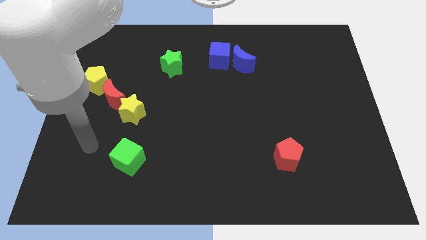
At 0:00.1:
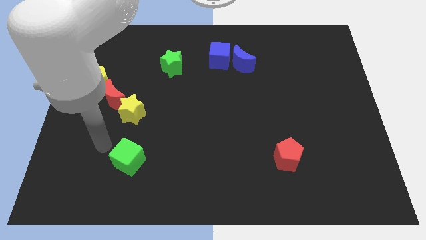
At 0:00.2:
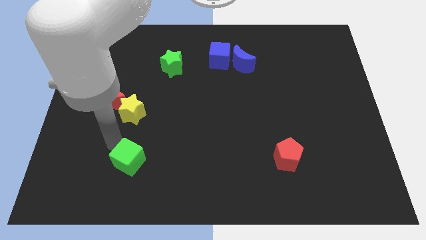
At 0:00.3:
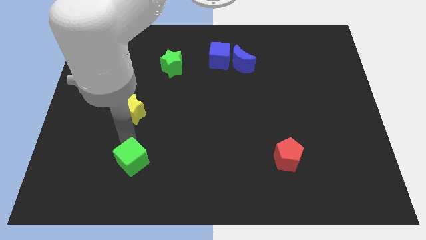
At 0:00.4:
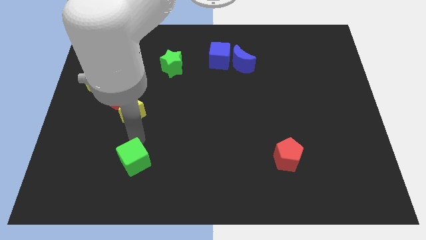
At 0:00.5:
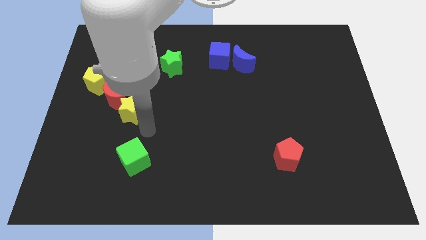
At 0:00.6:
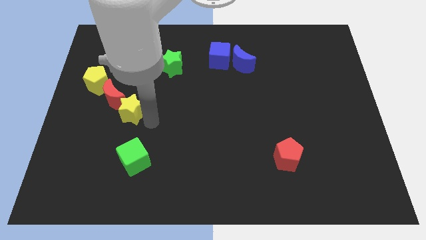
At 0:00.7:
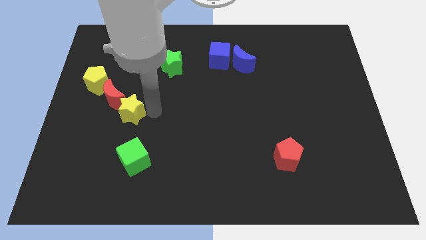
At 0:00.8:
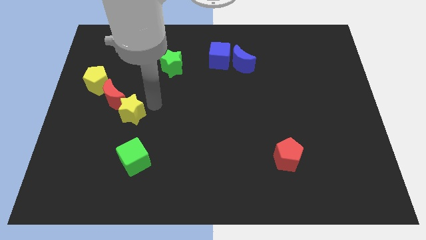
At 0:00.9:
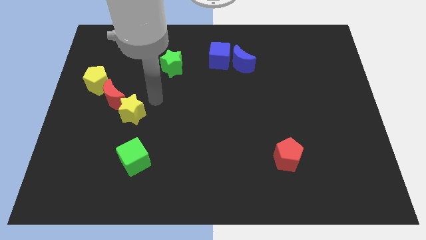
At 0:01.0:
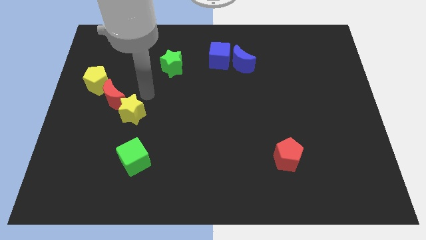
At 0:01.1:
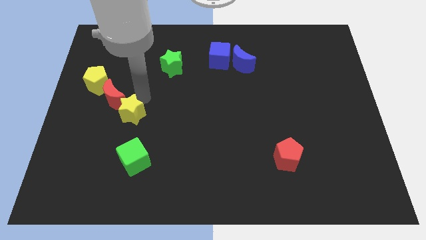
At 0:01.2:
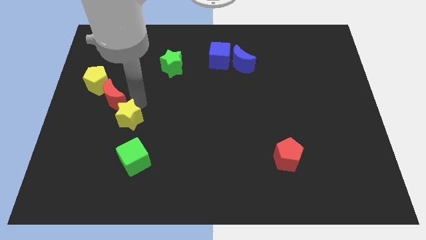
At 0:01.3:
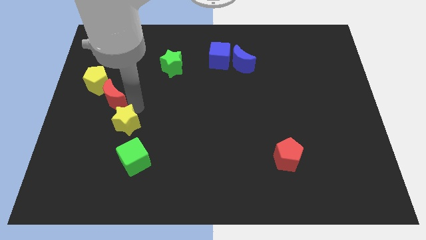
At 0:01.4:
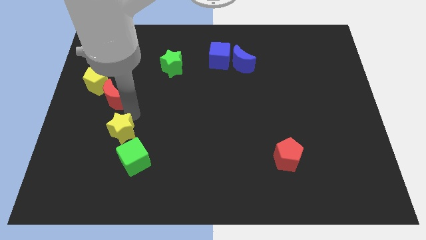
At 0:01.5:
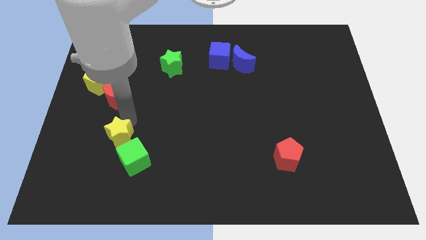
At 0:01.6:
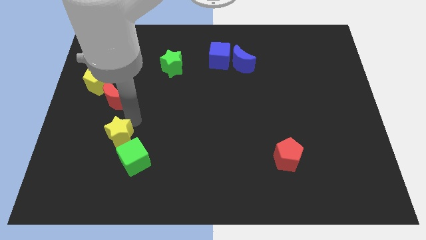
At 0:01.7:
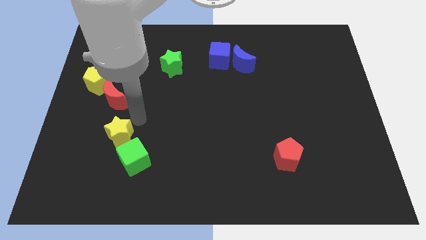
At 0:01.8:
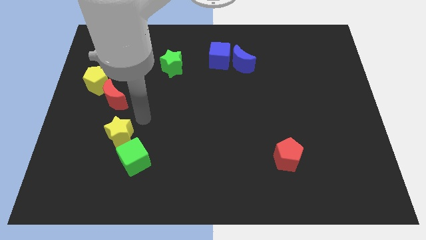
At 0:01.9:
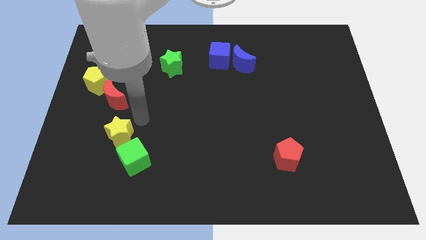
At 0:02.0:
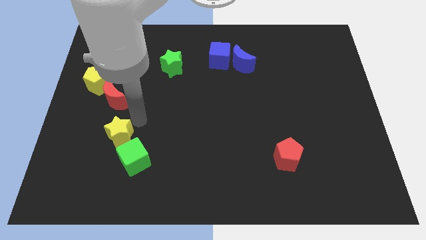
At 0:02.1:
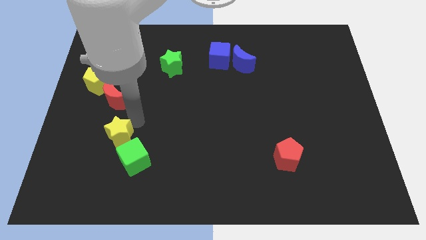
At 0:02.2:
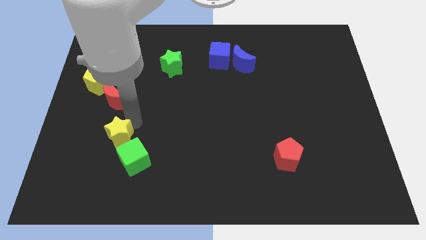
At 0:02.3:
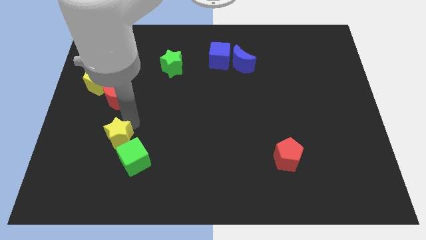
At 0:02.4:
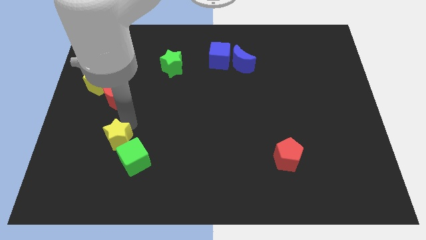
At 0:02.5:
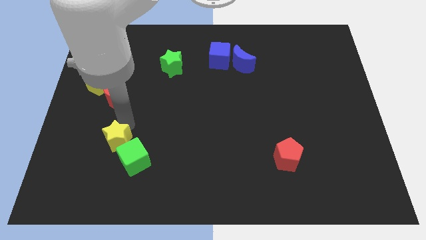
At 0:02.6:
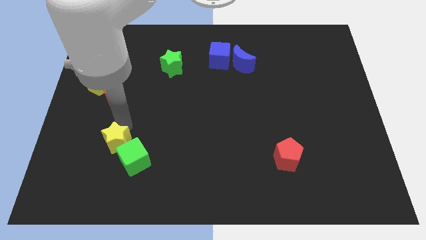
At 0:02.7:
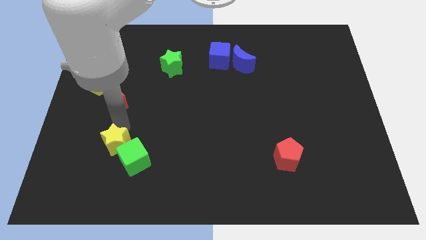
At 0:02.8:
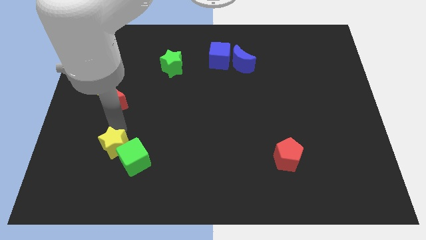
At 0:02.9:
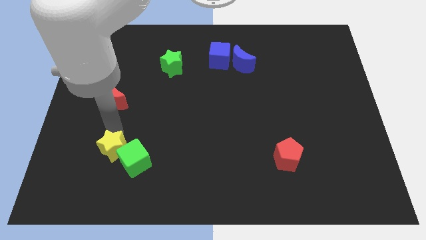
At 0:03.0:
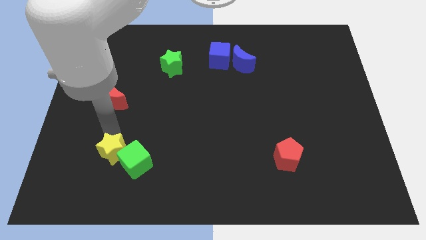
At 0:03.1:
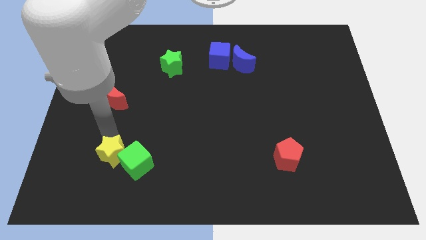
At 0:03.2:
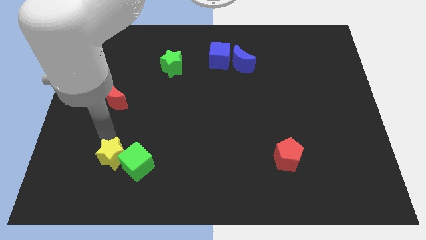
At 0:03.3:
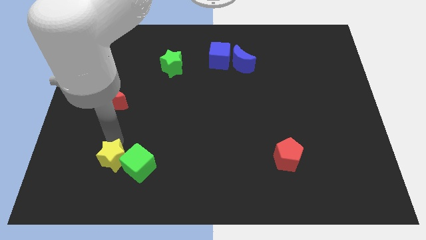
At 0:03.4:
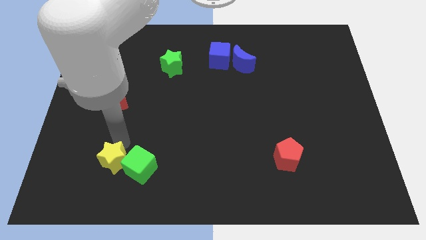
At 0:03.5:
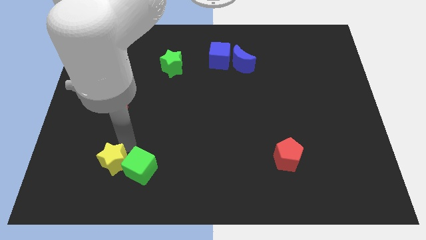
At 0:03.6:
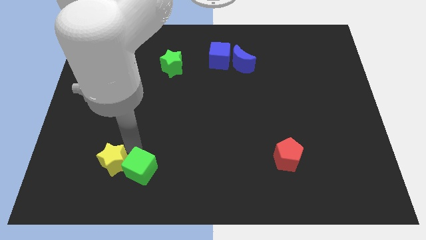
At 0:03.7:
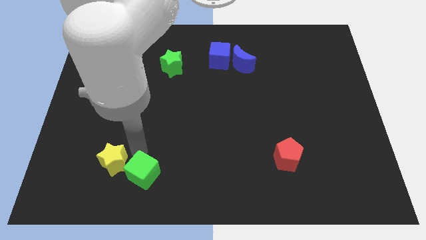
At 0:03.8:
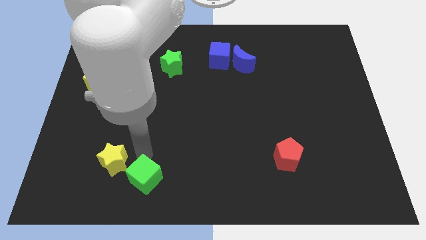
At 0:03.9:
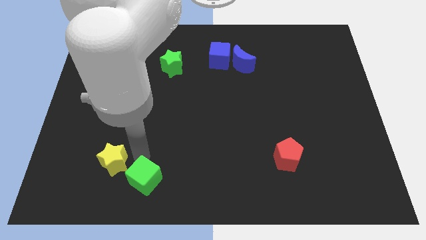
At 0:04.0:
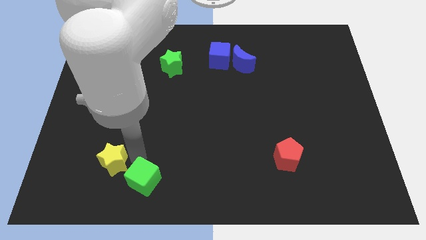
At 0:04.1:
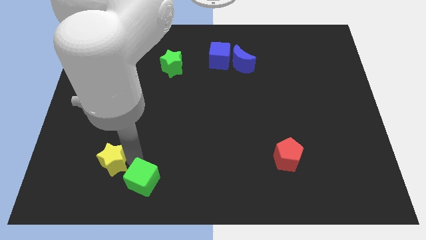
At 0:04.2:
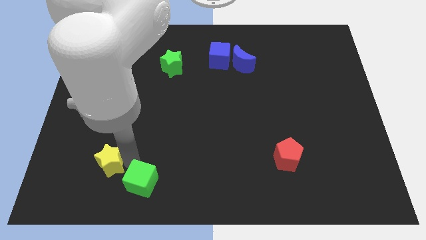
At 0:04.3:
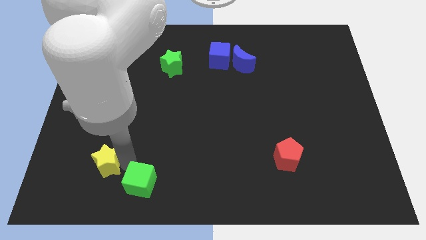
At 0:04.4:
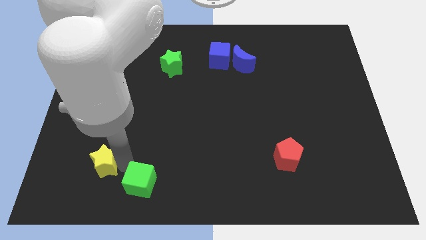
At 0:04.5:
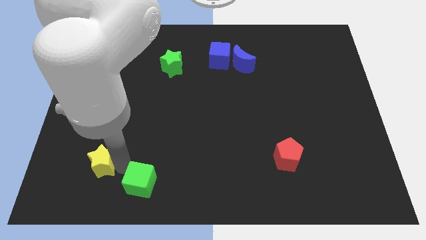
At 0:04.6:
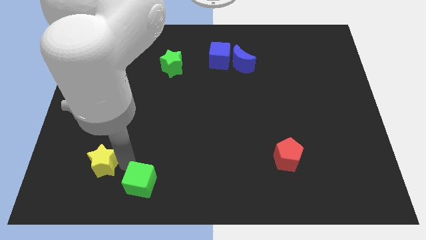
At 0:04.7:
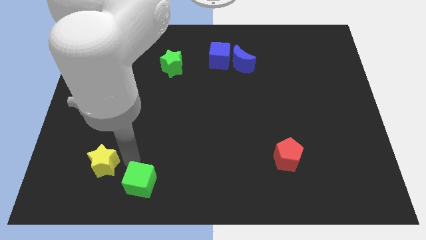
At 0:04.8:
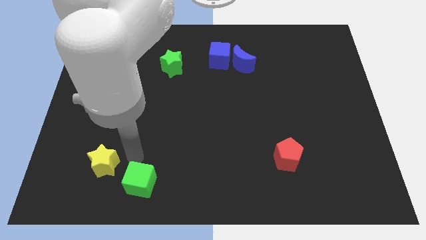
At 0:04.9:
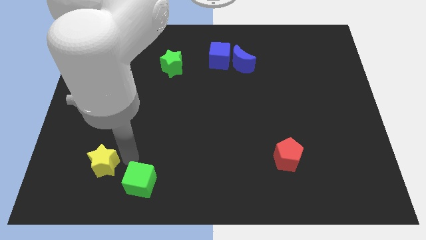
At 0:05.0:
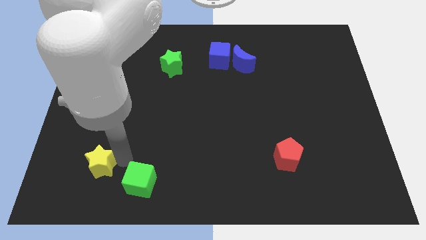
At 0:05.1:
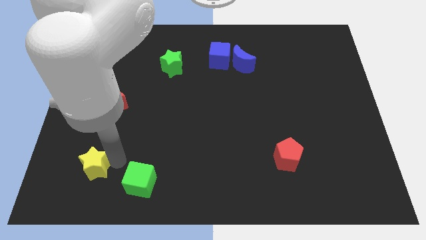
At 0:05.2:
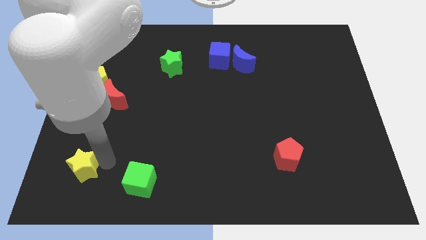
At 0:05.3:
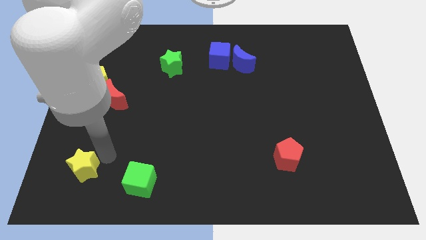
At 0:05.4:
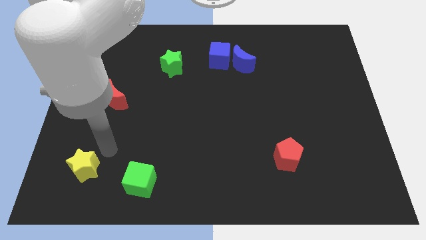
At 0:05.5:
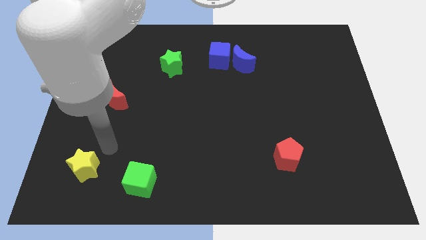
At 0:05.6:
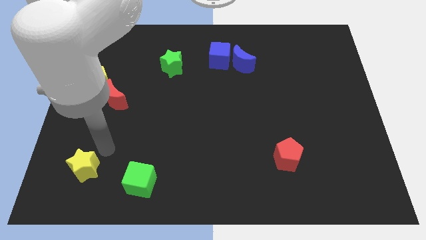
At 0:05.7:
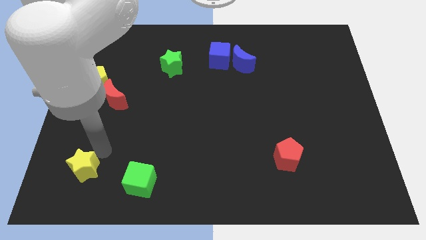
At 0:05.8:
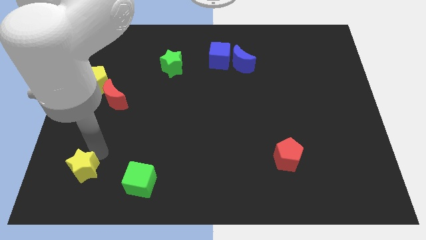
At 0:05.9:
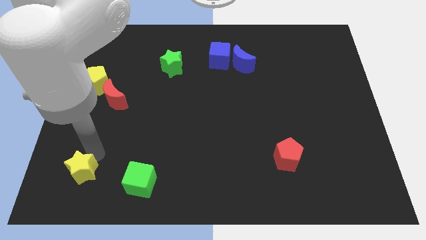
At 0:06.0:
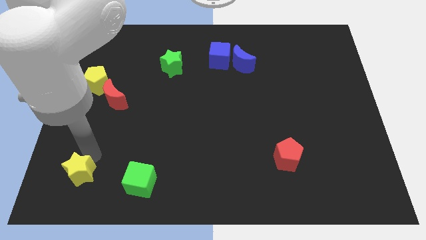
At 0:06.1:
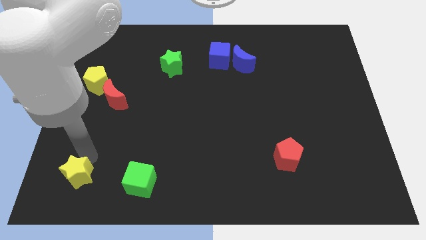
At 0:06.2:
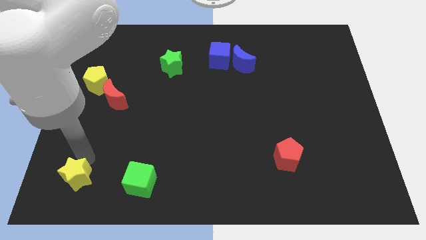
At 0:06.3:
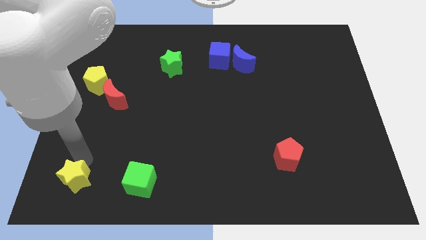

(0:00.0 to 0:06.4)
put the yellow star to the bottom left corner
